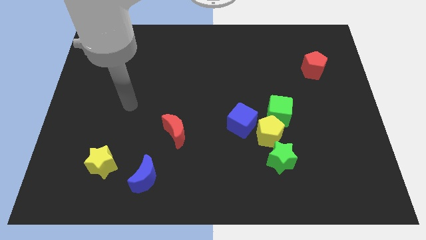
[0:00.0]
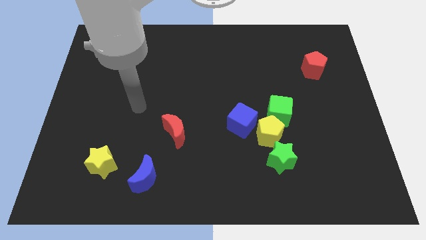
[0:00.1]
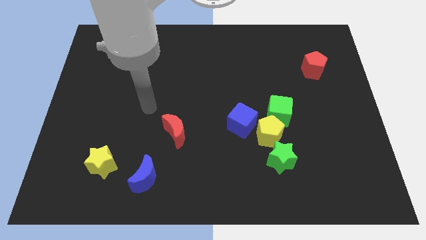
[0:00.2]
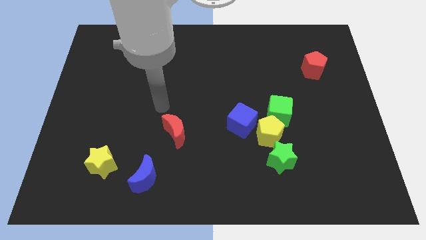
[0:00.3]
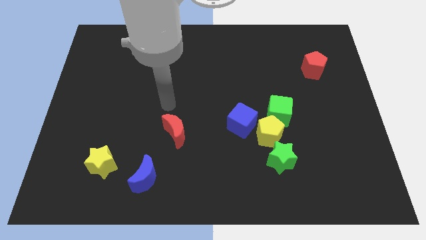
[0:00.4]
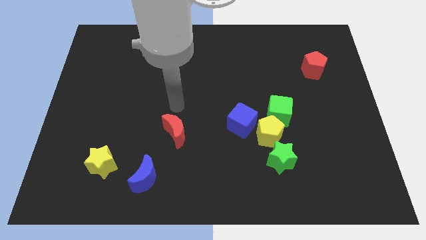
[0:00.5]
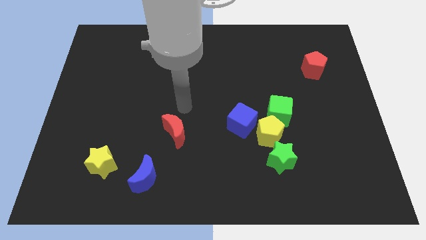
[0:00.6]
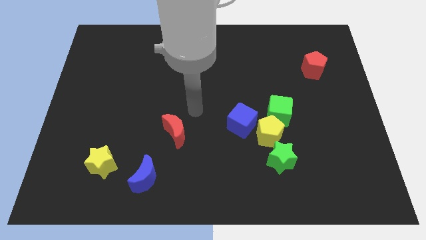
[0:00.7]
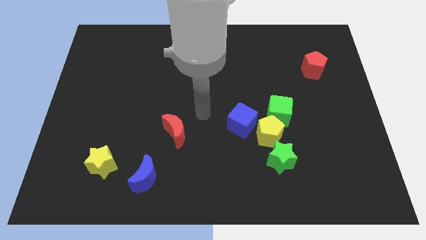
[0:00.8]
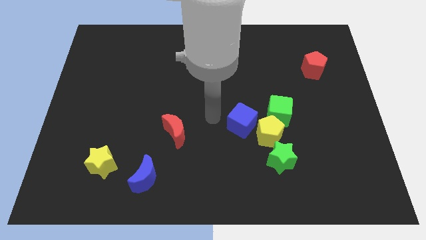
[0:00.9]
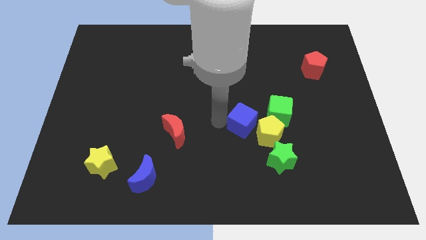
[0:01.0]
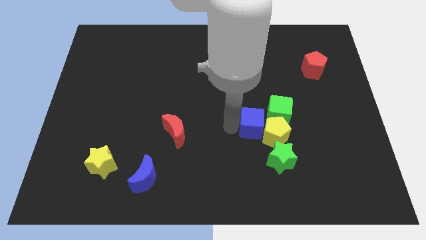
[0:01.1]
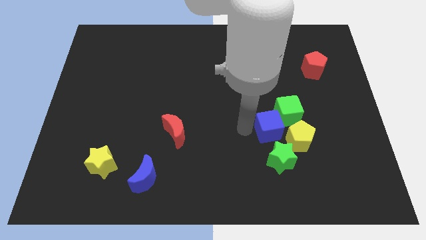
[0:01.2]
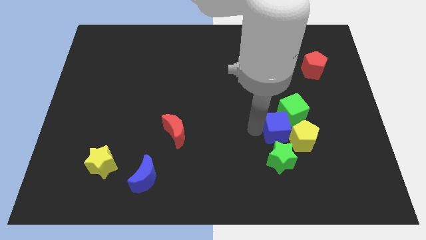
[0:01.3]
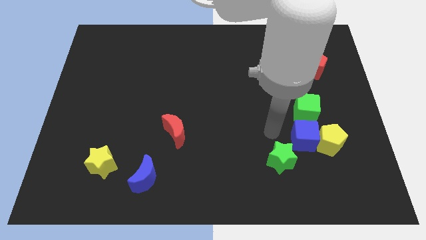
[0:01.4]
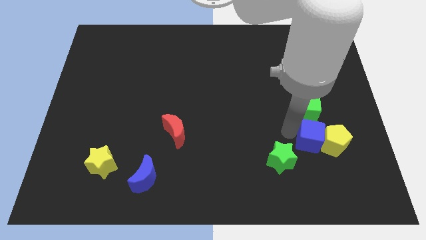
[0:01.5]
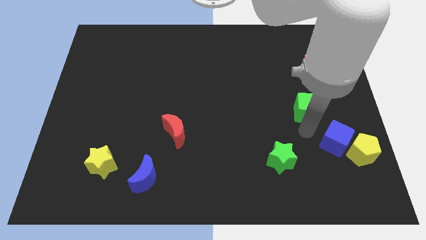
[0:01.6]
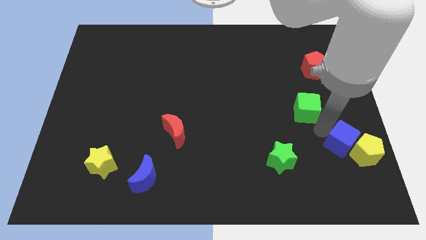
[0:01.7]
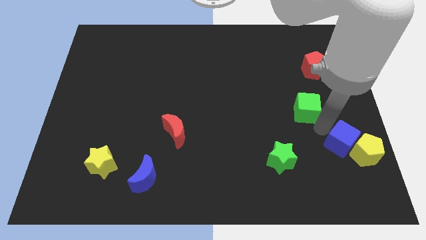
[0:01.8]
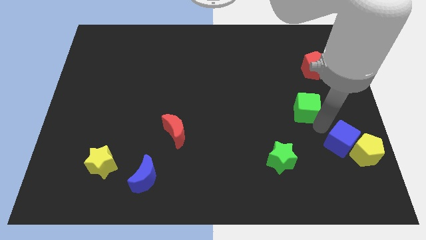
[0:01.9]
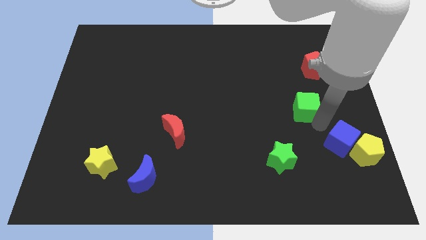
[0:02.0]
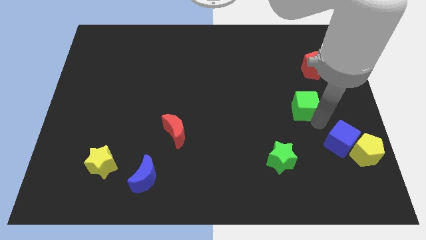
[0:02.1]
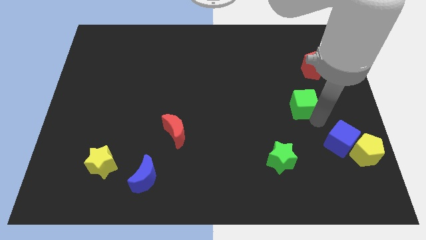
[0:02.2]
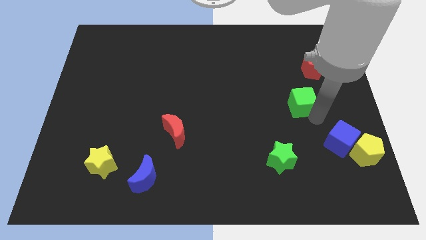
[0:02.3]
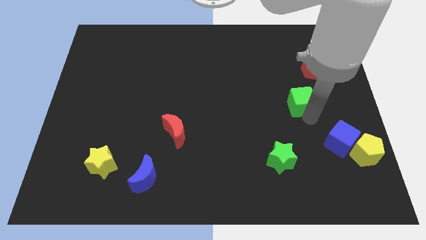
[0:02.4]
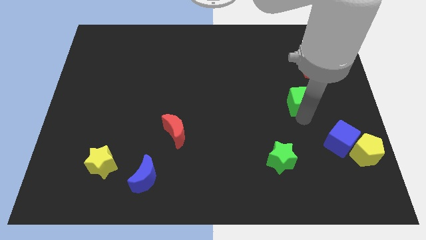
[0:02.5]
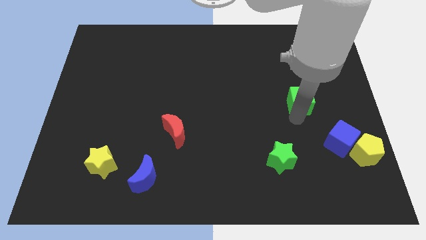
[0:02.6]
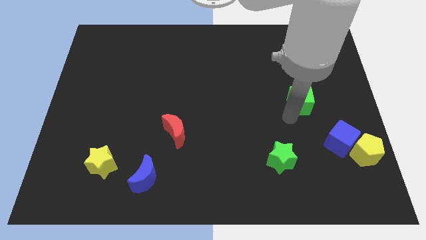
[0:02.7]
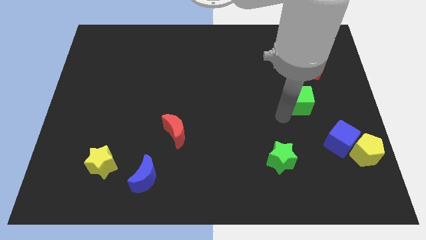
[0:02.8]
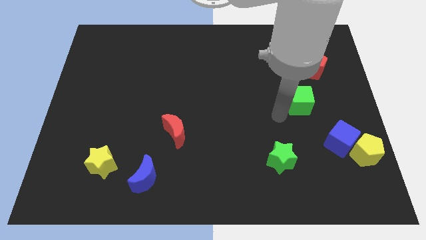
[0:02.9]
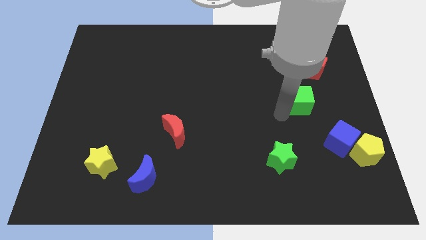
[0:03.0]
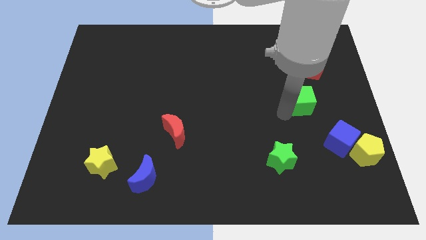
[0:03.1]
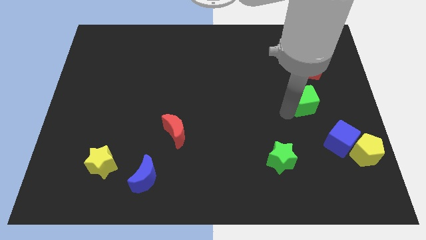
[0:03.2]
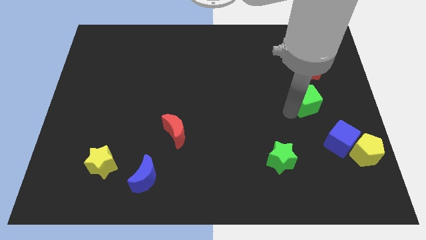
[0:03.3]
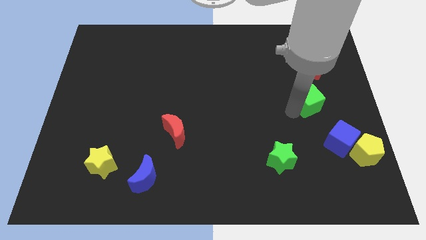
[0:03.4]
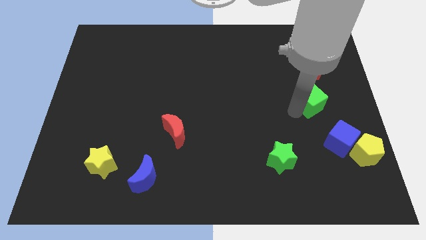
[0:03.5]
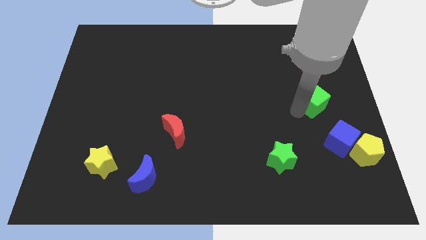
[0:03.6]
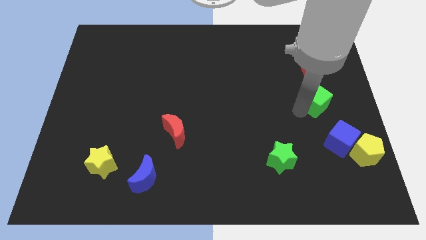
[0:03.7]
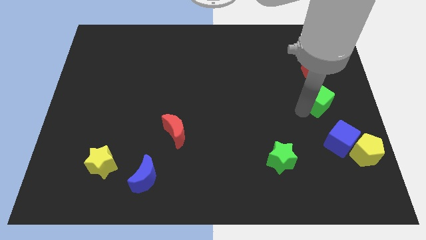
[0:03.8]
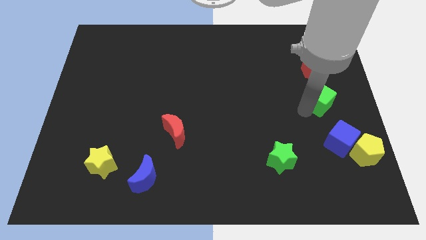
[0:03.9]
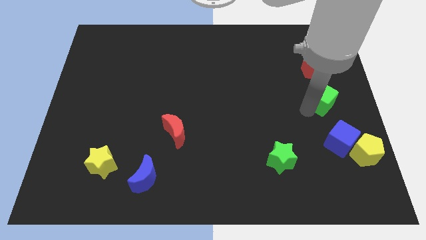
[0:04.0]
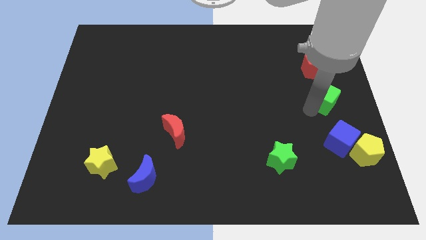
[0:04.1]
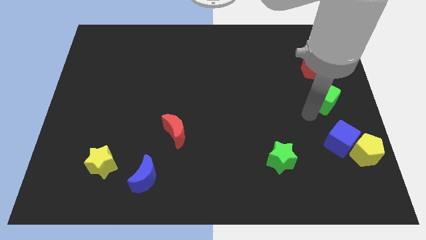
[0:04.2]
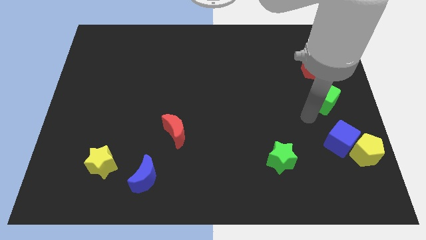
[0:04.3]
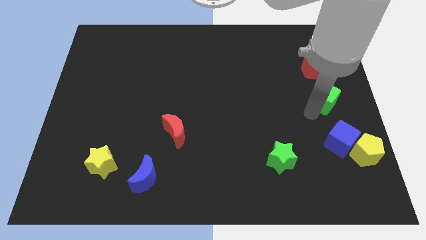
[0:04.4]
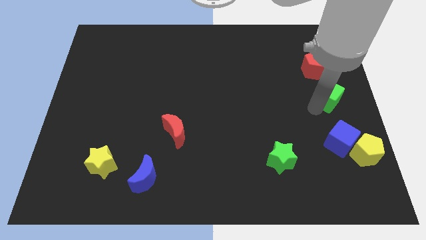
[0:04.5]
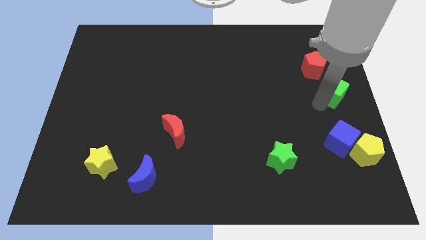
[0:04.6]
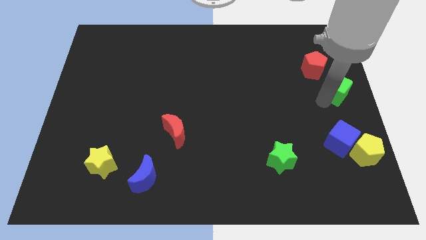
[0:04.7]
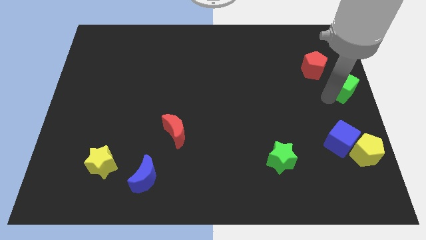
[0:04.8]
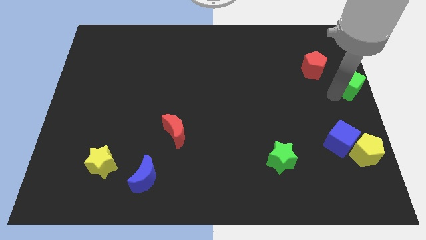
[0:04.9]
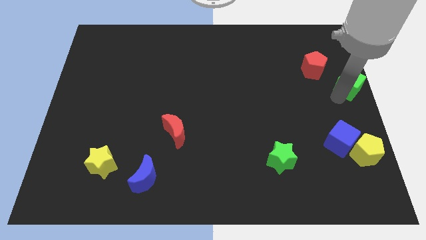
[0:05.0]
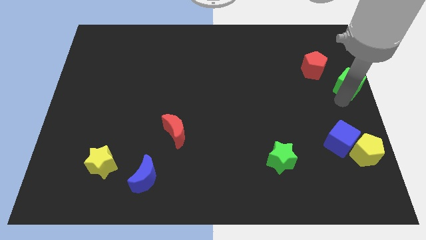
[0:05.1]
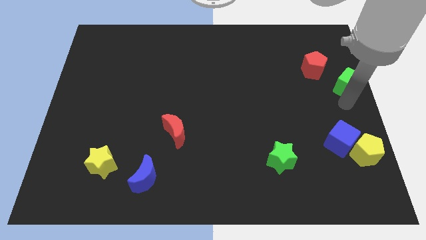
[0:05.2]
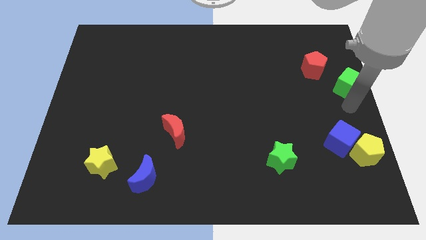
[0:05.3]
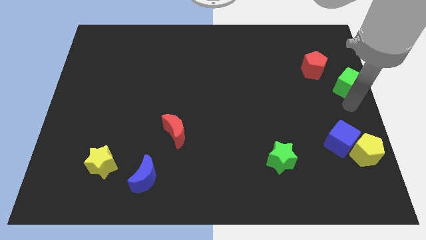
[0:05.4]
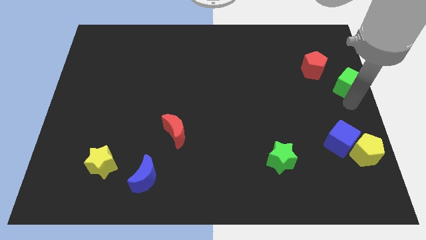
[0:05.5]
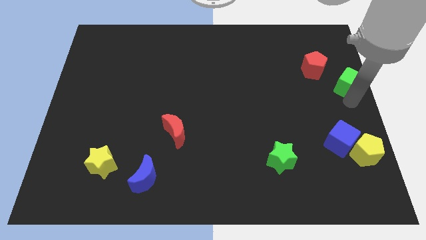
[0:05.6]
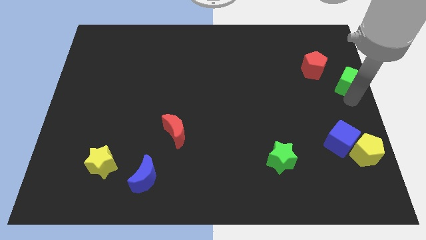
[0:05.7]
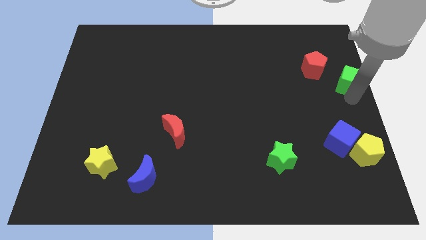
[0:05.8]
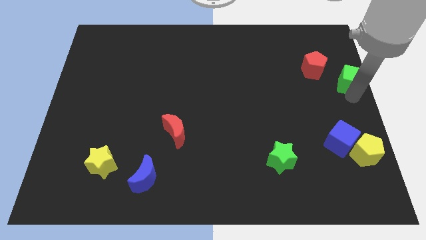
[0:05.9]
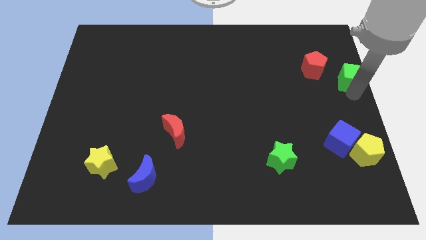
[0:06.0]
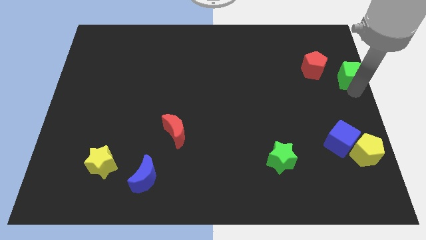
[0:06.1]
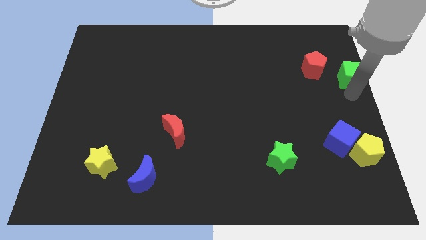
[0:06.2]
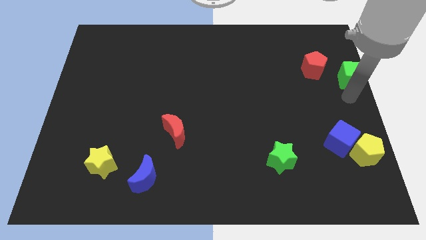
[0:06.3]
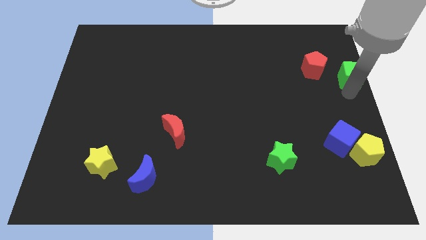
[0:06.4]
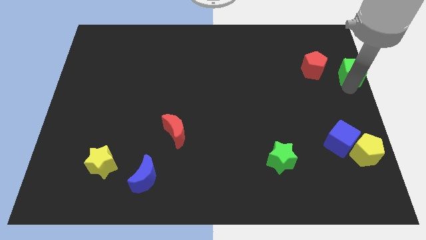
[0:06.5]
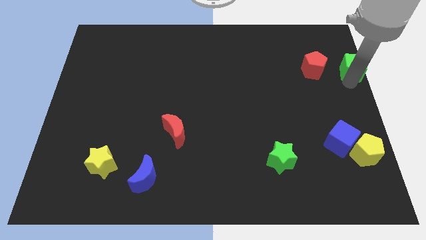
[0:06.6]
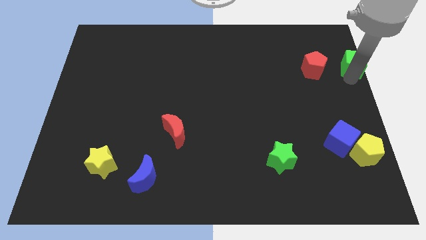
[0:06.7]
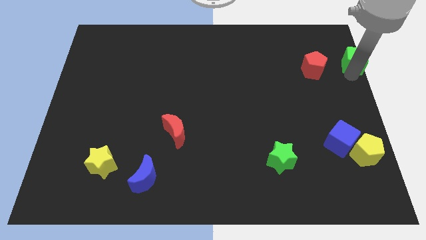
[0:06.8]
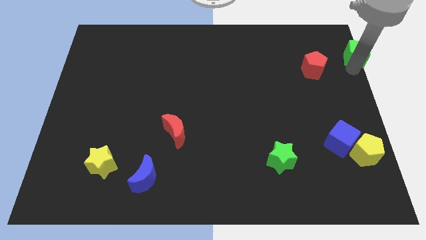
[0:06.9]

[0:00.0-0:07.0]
slide the green cube to the upper right corner
